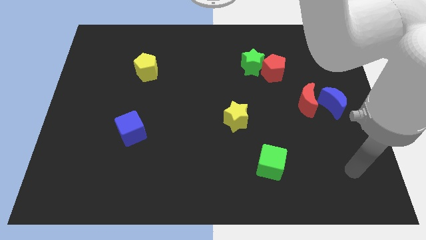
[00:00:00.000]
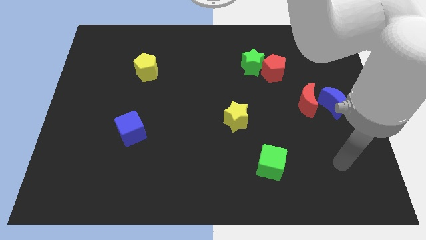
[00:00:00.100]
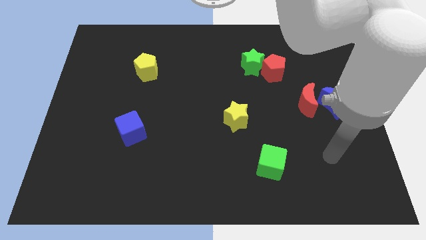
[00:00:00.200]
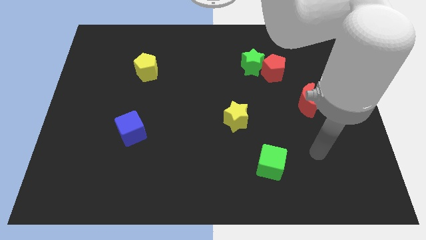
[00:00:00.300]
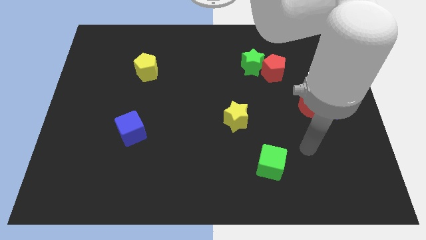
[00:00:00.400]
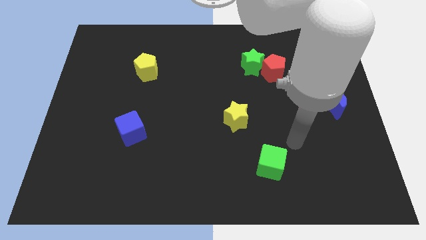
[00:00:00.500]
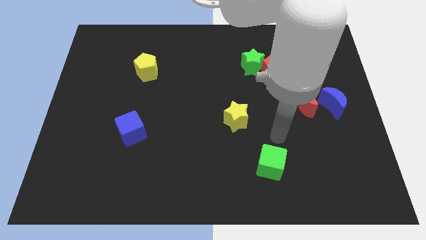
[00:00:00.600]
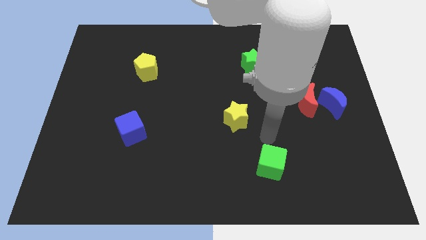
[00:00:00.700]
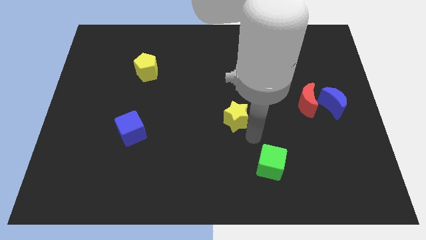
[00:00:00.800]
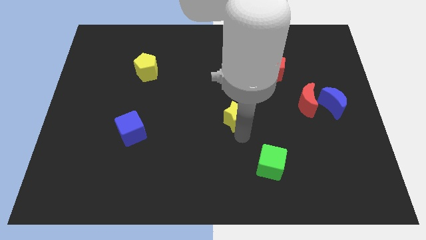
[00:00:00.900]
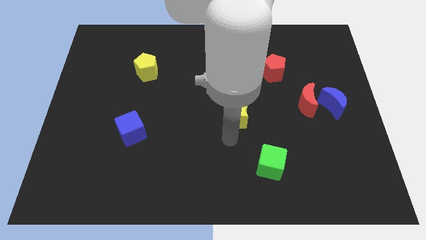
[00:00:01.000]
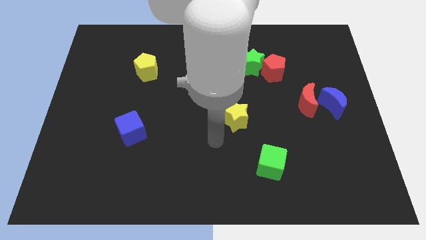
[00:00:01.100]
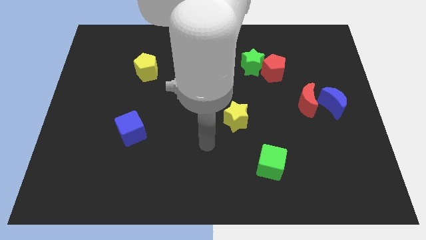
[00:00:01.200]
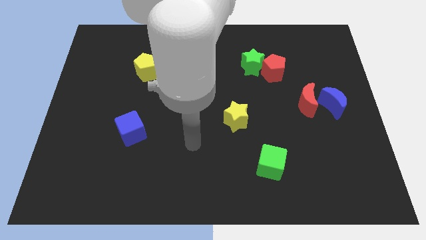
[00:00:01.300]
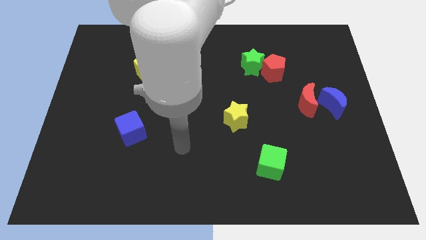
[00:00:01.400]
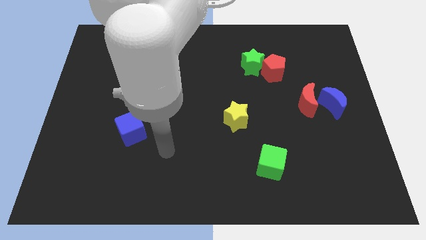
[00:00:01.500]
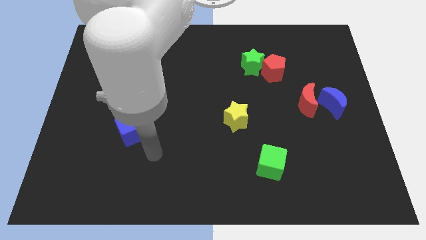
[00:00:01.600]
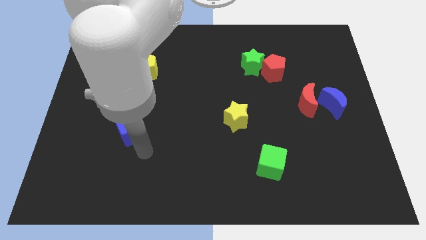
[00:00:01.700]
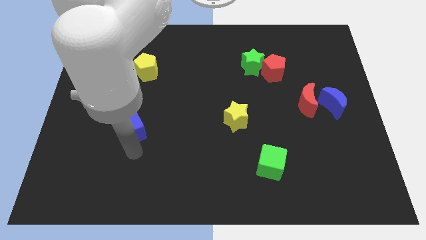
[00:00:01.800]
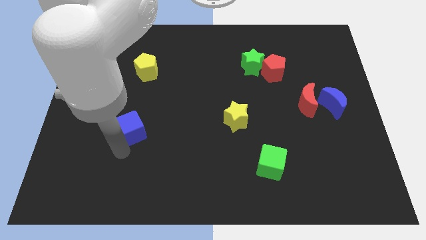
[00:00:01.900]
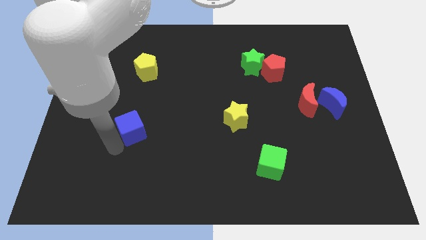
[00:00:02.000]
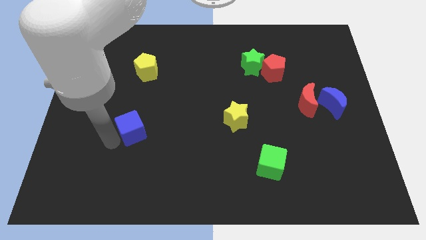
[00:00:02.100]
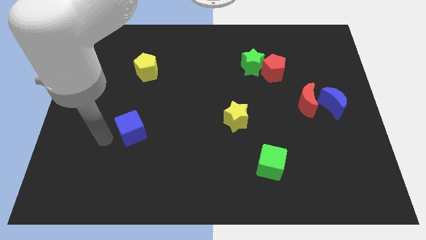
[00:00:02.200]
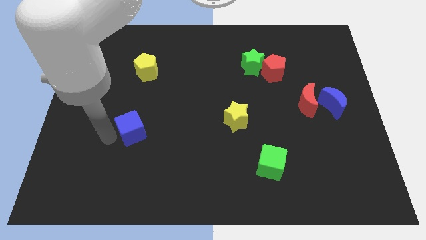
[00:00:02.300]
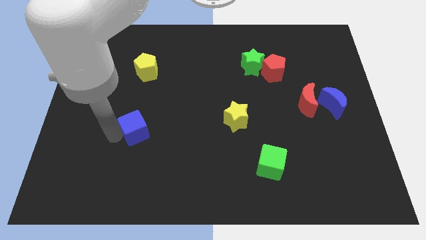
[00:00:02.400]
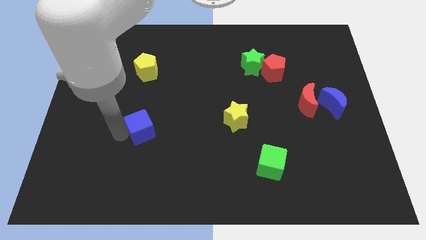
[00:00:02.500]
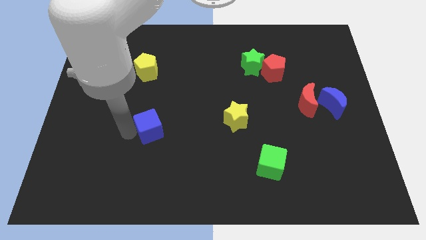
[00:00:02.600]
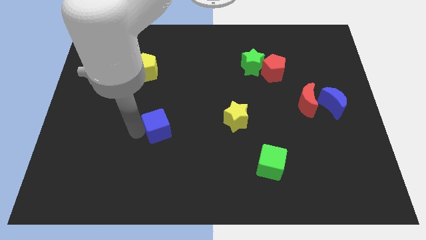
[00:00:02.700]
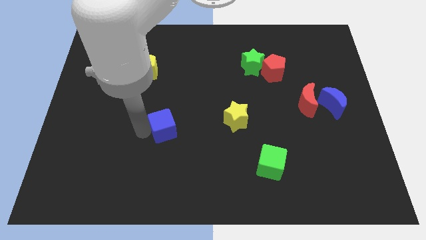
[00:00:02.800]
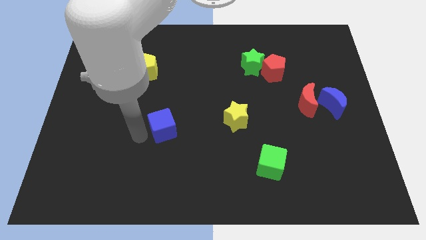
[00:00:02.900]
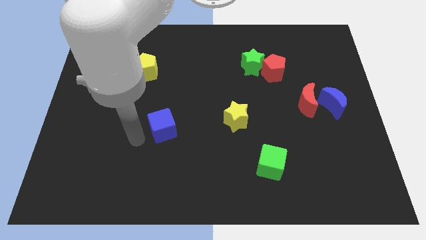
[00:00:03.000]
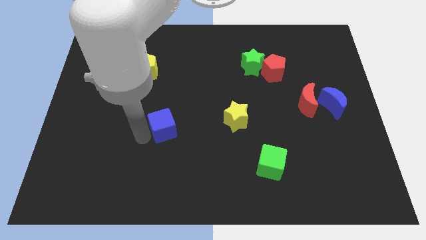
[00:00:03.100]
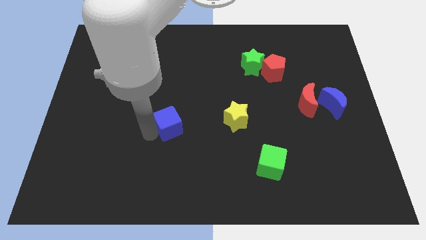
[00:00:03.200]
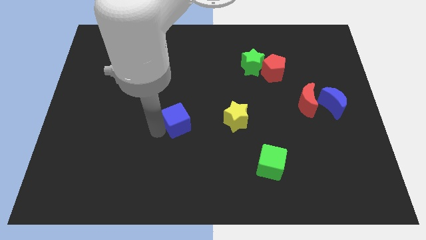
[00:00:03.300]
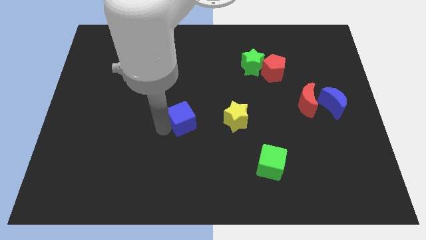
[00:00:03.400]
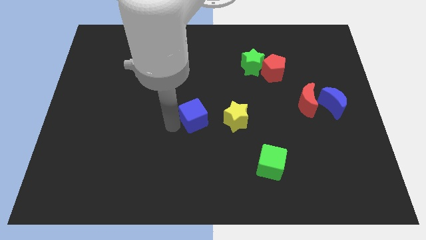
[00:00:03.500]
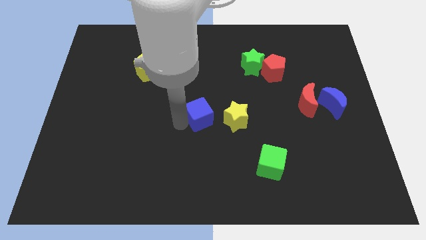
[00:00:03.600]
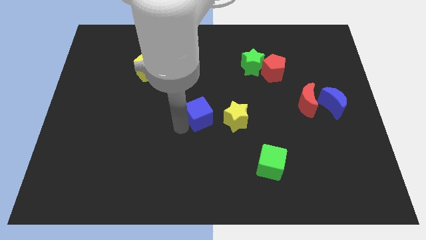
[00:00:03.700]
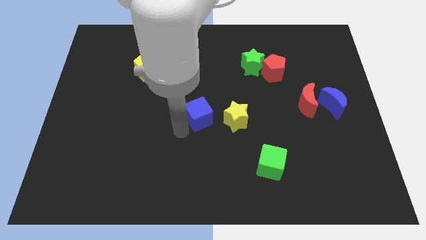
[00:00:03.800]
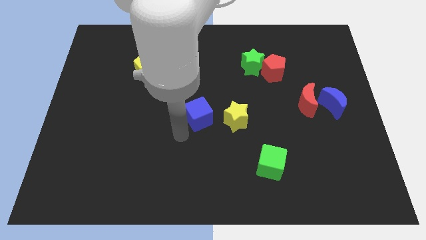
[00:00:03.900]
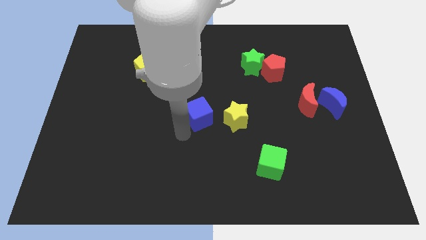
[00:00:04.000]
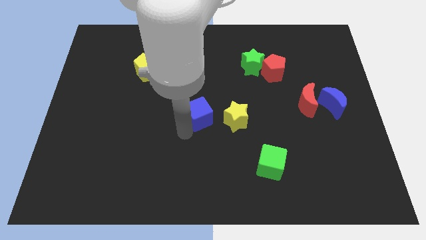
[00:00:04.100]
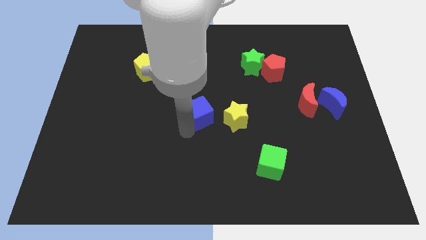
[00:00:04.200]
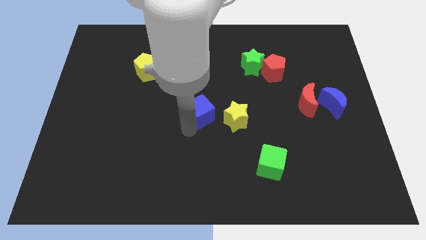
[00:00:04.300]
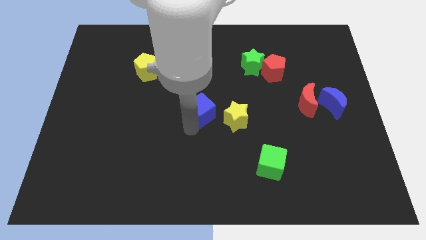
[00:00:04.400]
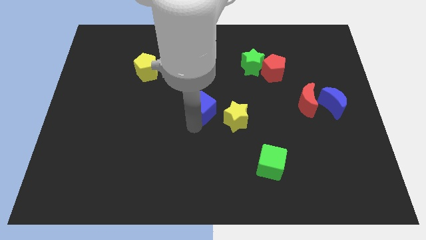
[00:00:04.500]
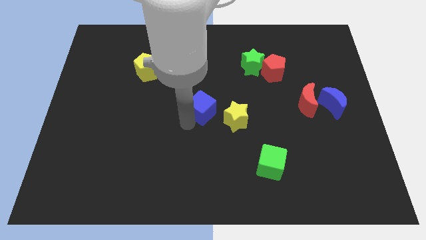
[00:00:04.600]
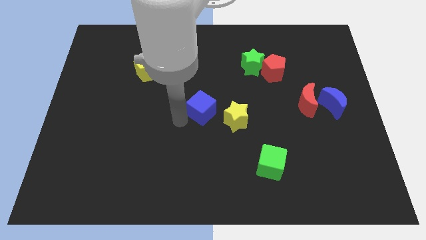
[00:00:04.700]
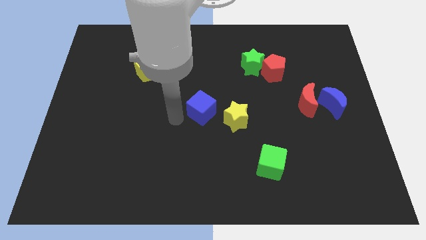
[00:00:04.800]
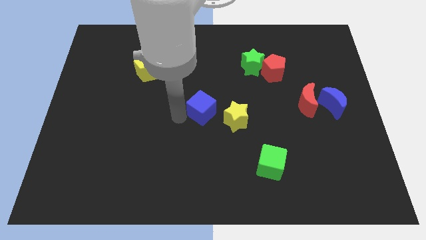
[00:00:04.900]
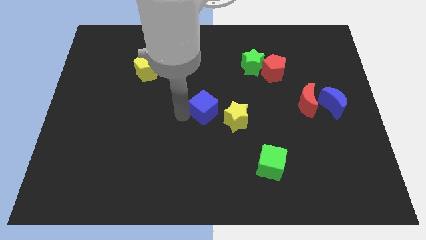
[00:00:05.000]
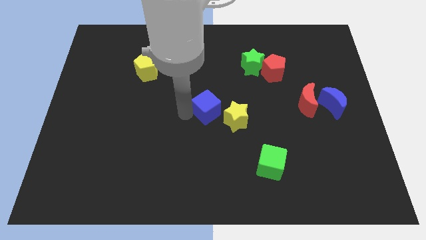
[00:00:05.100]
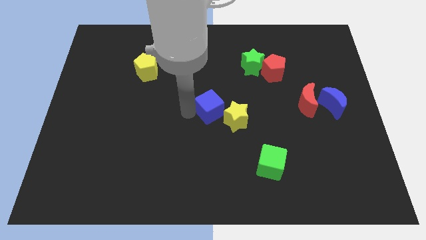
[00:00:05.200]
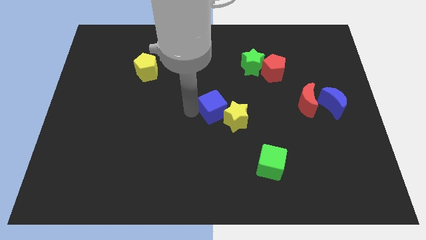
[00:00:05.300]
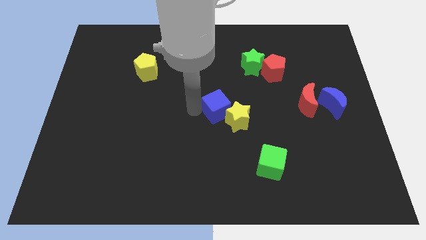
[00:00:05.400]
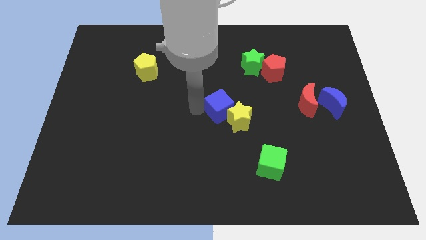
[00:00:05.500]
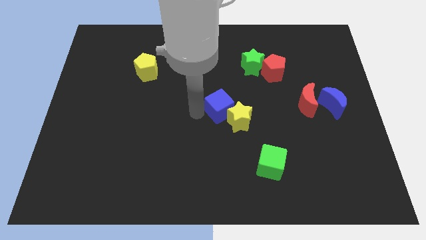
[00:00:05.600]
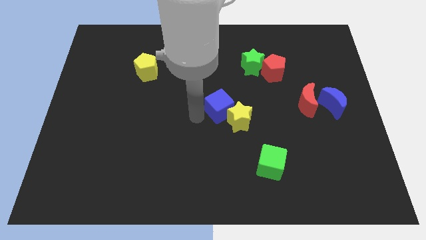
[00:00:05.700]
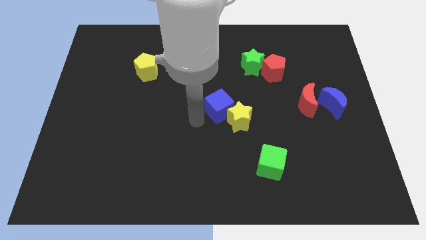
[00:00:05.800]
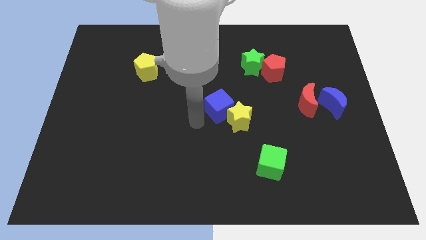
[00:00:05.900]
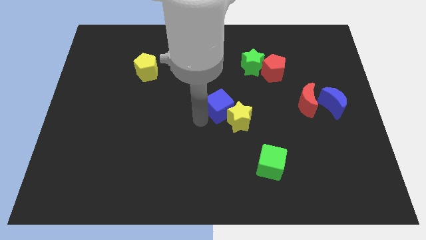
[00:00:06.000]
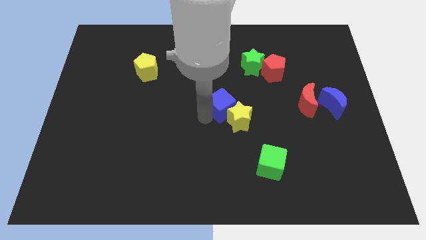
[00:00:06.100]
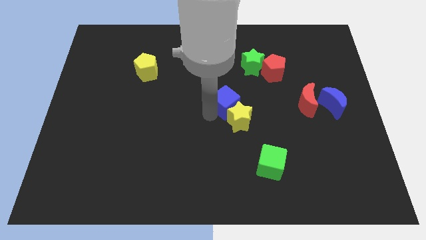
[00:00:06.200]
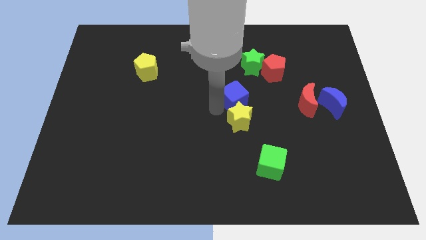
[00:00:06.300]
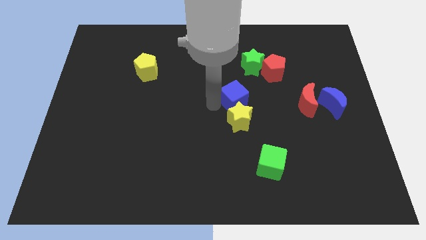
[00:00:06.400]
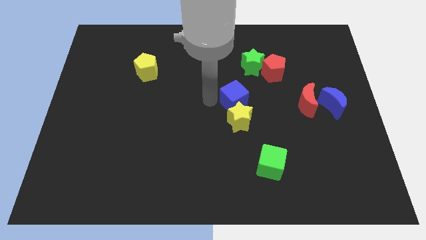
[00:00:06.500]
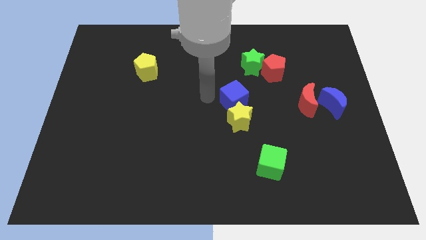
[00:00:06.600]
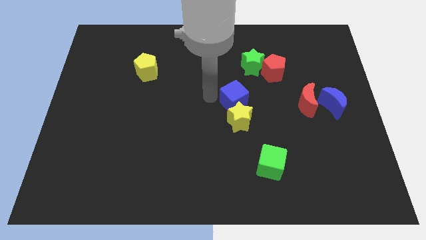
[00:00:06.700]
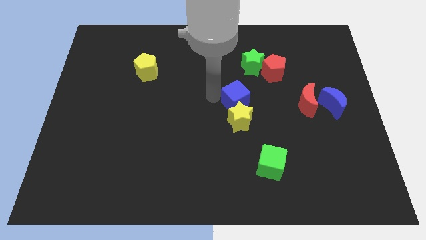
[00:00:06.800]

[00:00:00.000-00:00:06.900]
push the blue cube to the top right side of the yellow star

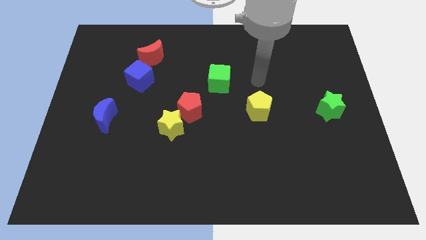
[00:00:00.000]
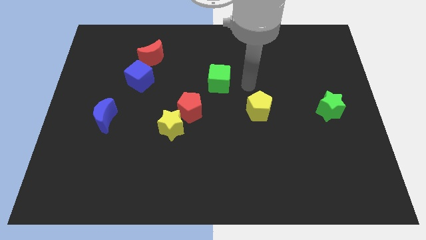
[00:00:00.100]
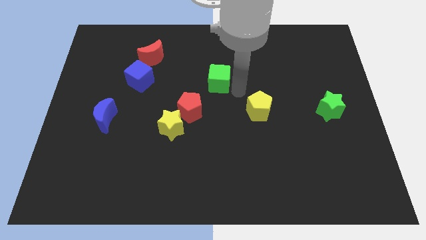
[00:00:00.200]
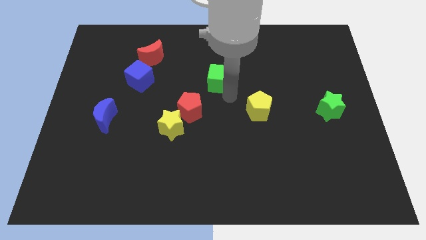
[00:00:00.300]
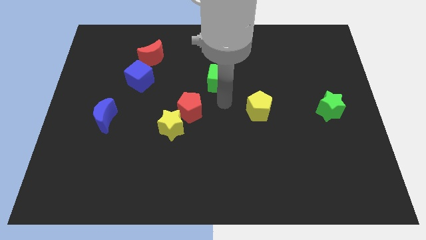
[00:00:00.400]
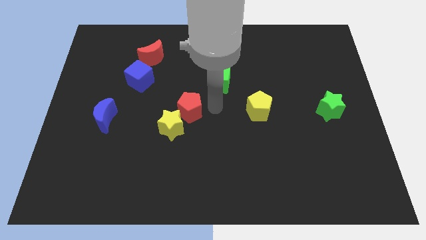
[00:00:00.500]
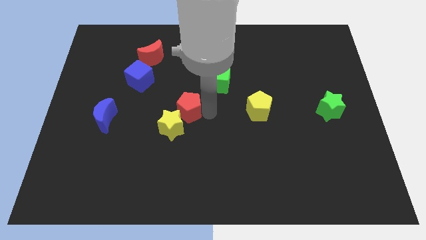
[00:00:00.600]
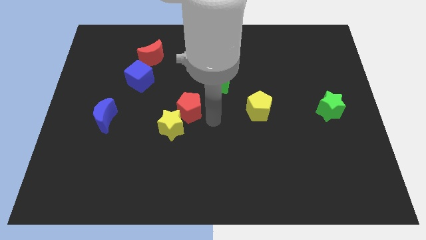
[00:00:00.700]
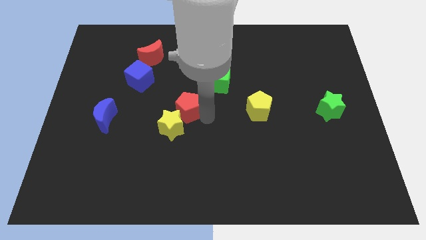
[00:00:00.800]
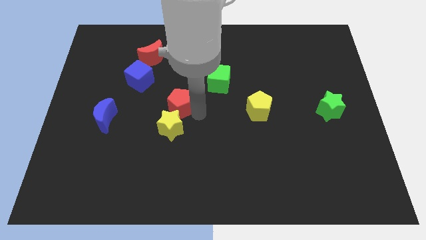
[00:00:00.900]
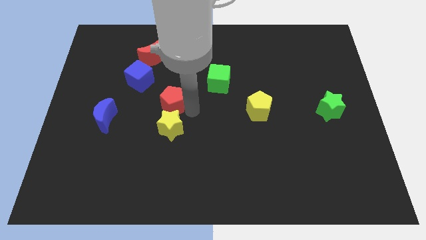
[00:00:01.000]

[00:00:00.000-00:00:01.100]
slide the red pentagon diagonally down and to the right of the blue cube
